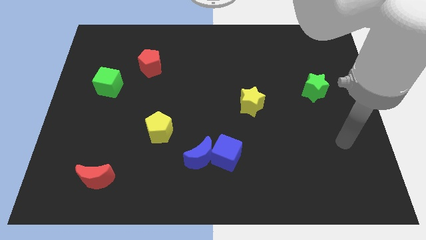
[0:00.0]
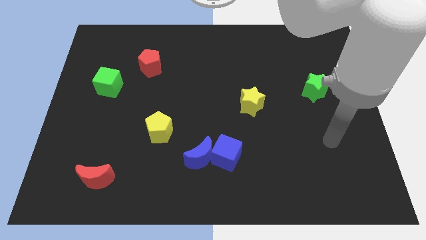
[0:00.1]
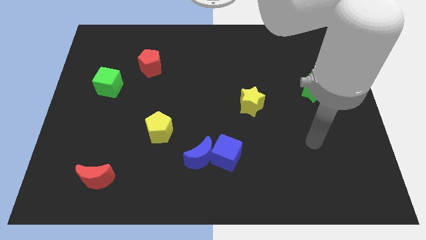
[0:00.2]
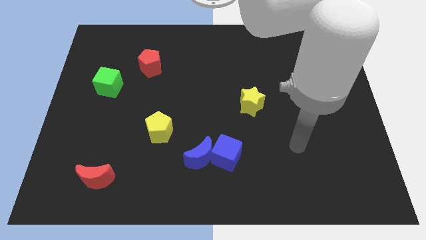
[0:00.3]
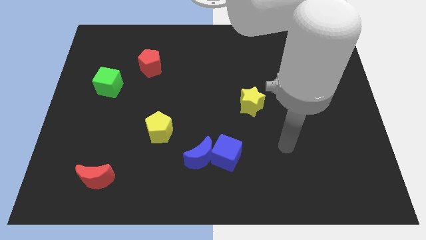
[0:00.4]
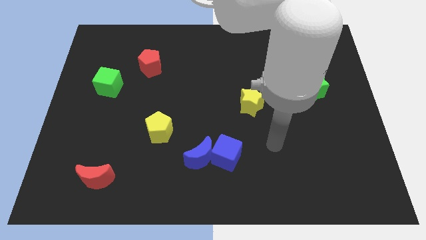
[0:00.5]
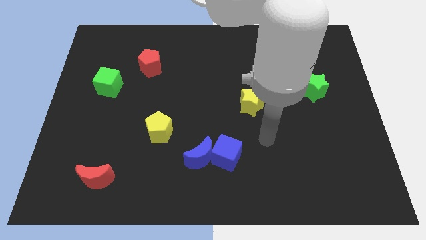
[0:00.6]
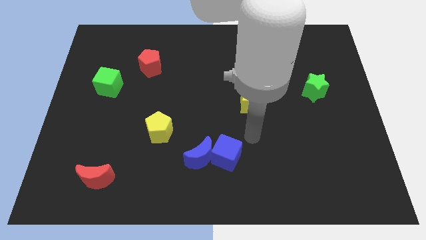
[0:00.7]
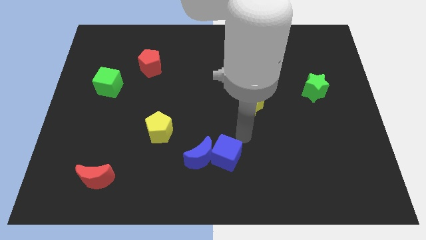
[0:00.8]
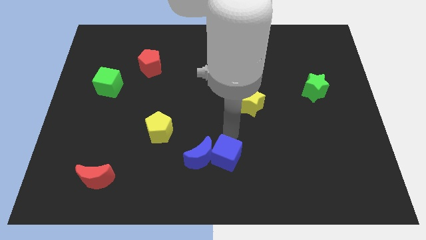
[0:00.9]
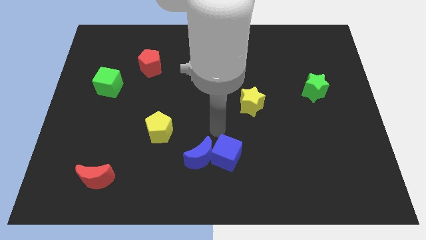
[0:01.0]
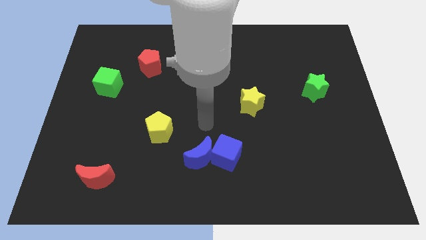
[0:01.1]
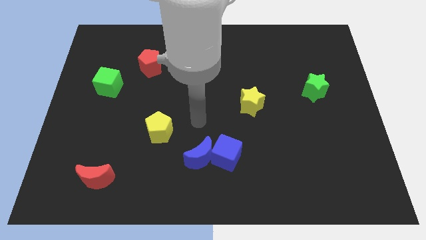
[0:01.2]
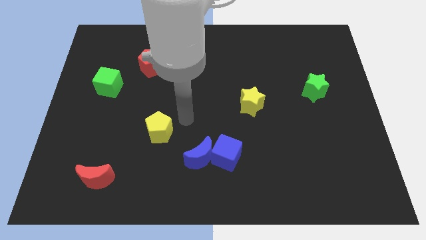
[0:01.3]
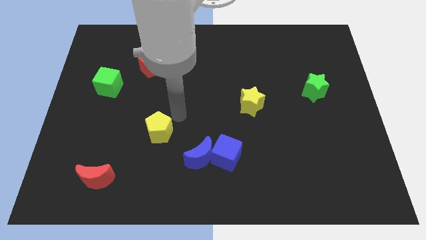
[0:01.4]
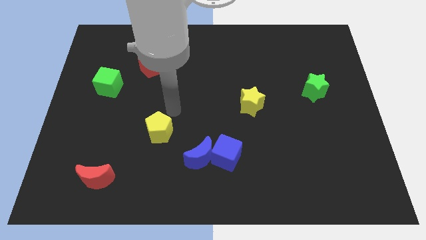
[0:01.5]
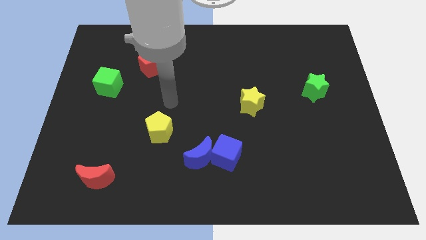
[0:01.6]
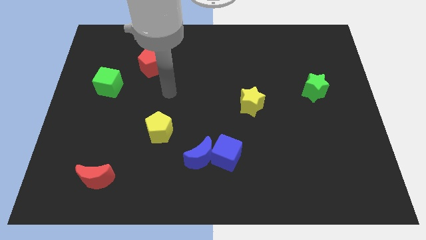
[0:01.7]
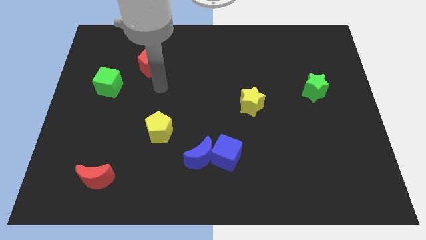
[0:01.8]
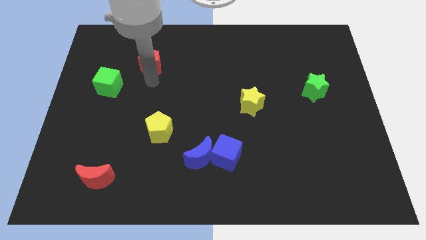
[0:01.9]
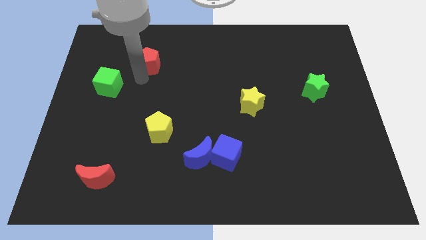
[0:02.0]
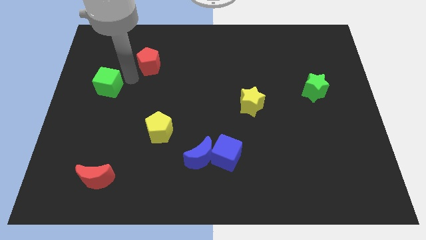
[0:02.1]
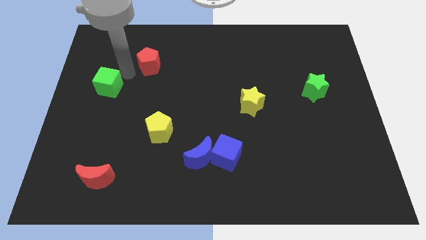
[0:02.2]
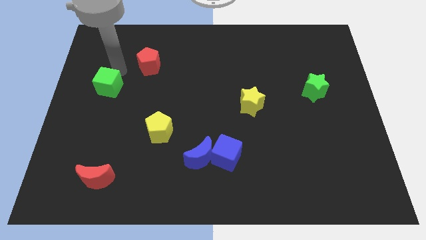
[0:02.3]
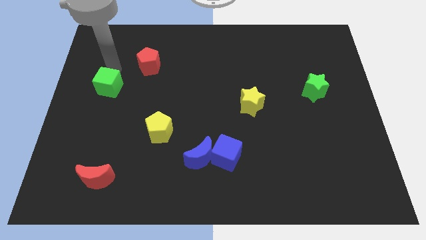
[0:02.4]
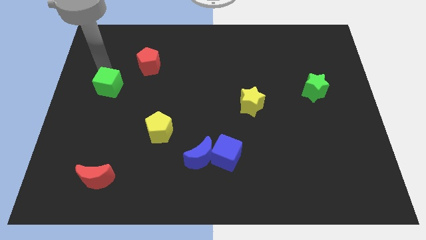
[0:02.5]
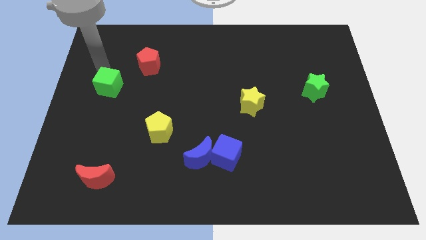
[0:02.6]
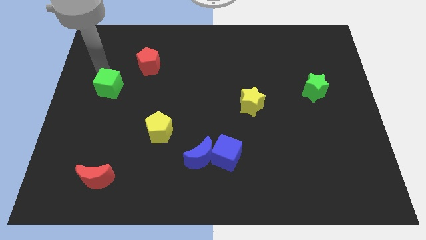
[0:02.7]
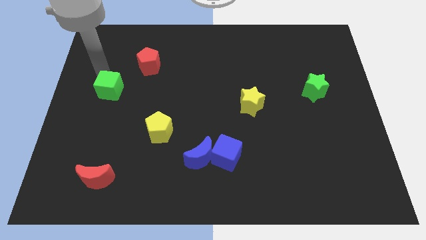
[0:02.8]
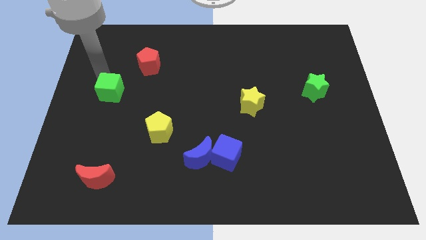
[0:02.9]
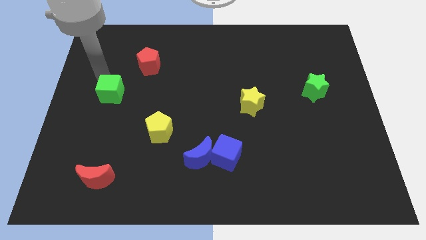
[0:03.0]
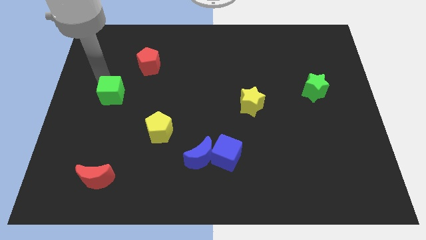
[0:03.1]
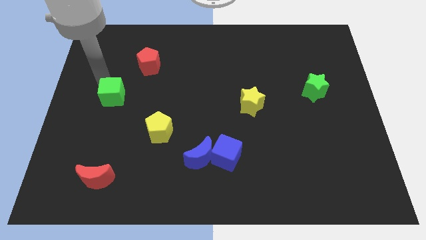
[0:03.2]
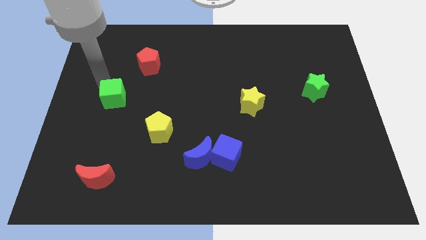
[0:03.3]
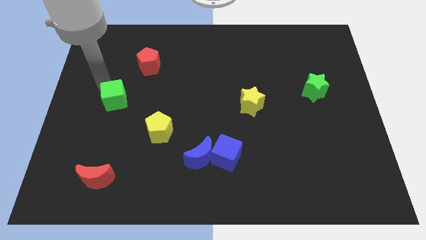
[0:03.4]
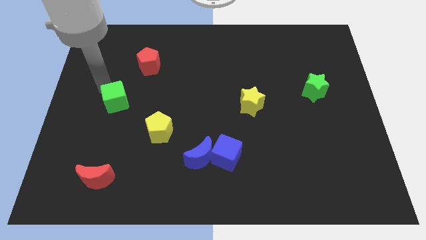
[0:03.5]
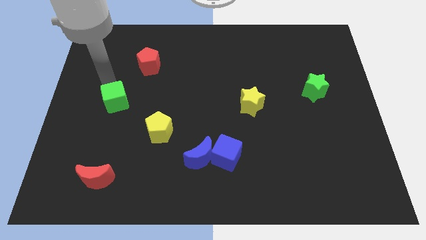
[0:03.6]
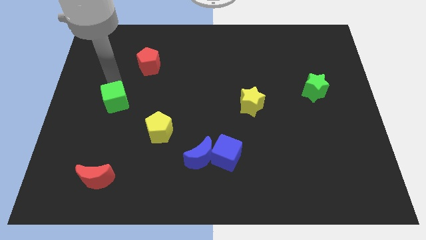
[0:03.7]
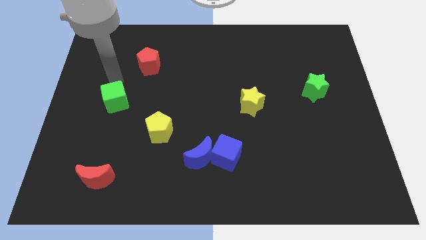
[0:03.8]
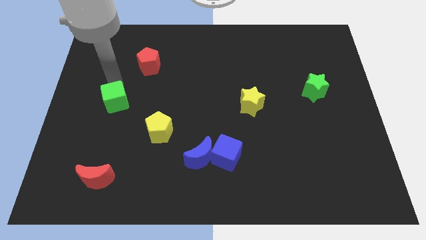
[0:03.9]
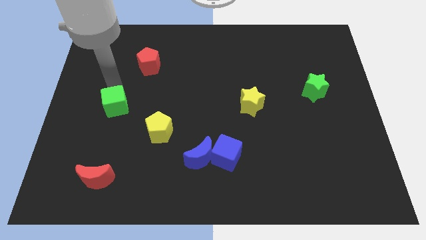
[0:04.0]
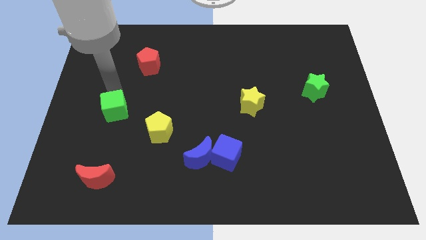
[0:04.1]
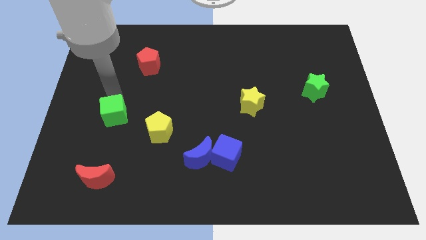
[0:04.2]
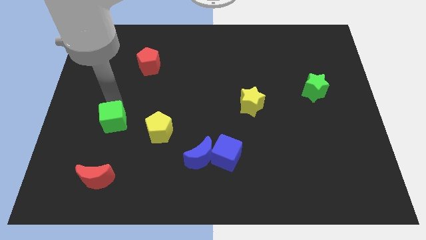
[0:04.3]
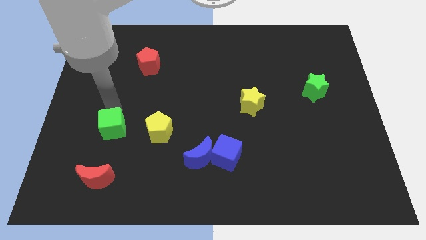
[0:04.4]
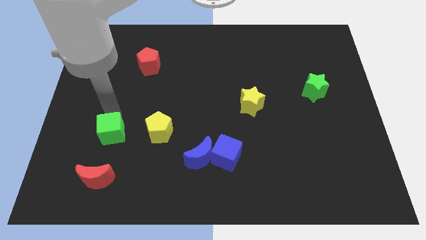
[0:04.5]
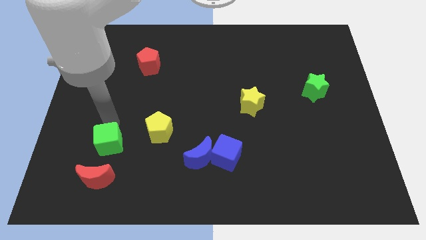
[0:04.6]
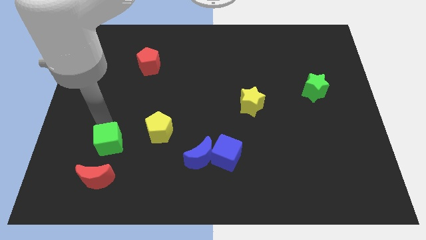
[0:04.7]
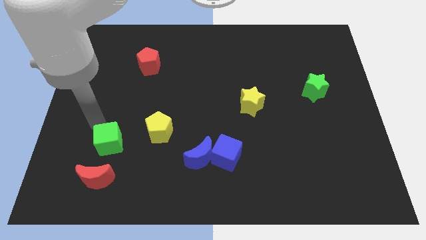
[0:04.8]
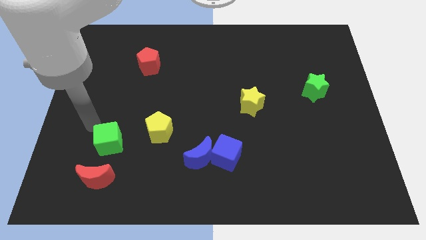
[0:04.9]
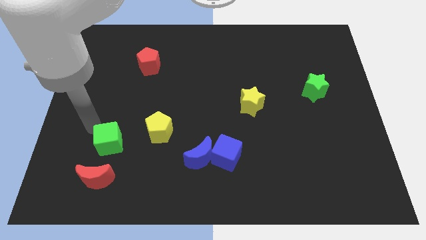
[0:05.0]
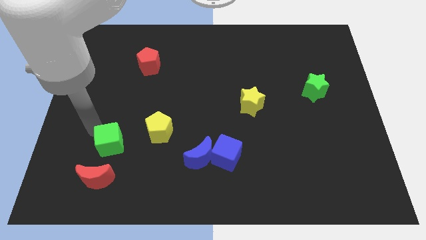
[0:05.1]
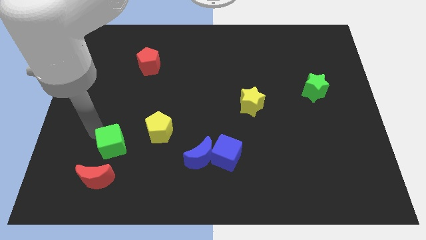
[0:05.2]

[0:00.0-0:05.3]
move the green cube diagonally up and to the right of the red moon

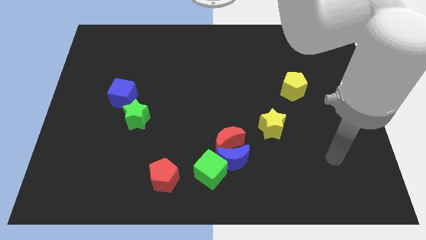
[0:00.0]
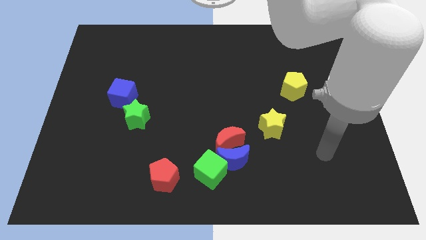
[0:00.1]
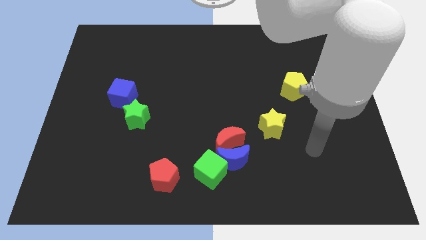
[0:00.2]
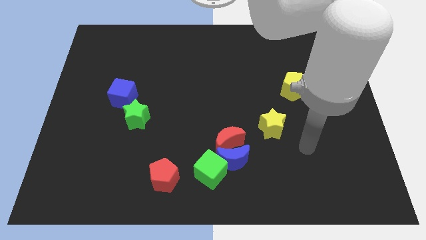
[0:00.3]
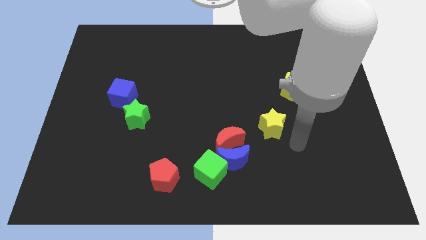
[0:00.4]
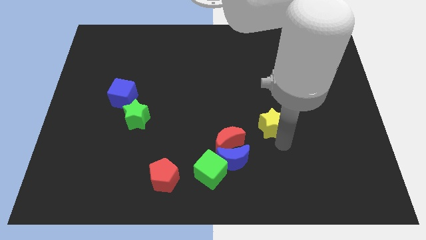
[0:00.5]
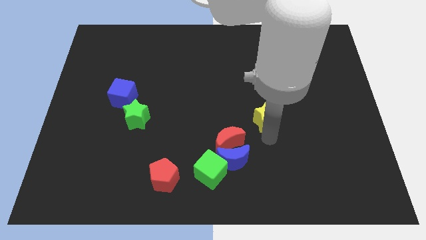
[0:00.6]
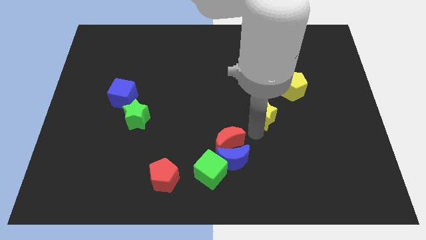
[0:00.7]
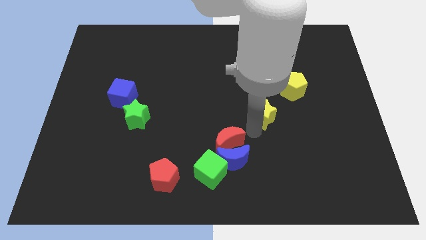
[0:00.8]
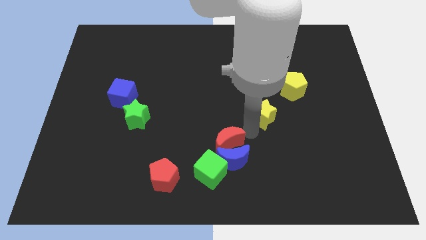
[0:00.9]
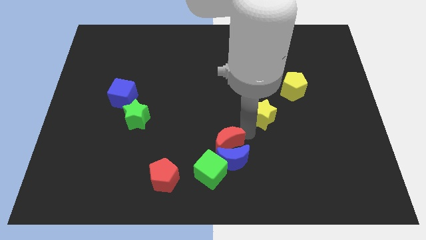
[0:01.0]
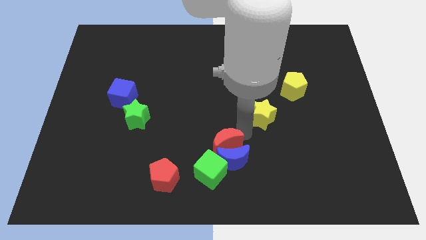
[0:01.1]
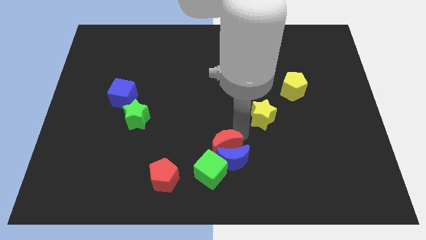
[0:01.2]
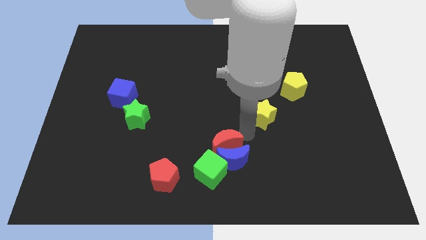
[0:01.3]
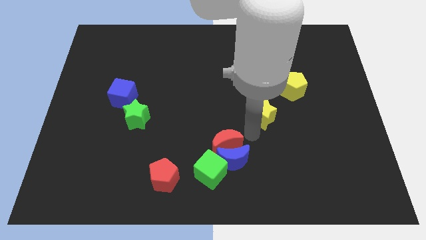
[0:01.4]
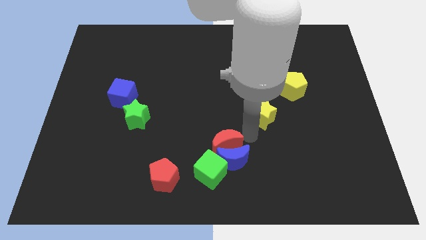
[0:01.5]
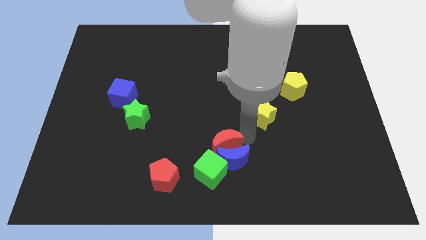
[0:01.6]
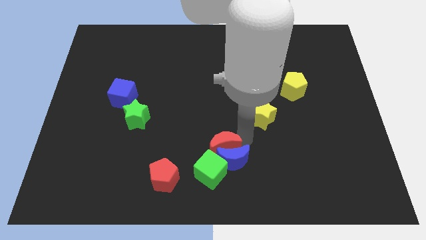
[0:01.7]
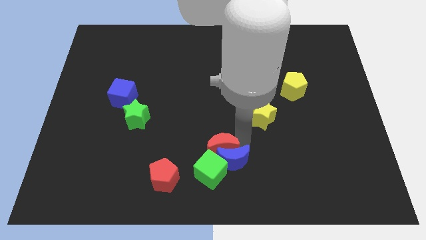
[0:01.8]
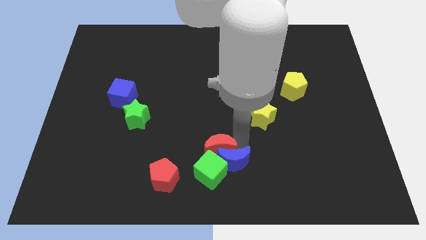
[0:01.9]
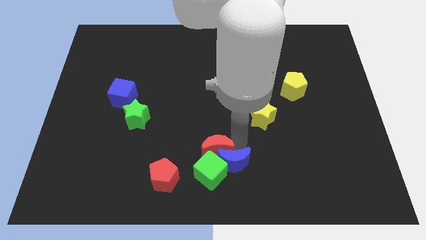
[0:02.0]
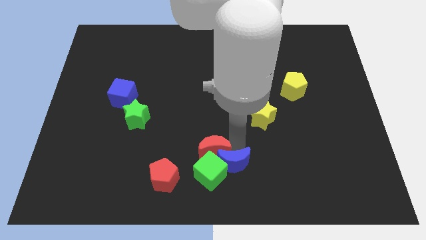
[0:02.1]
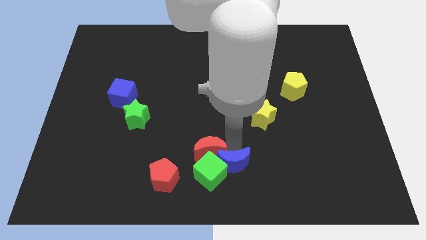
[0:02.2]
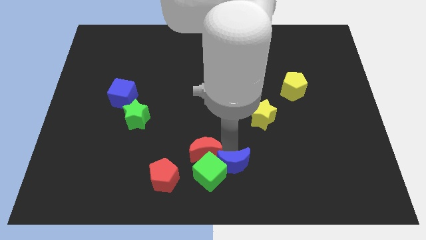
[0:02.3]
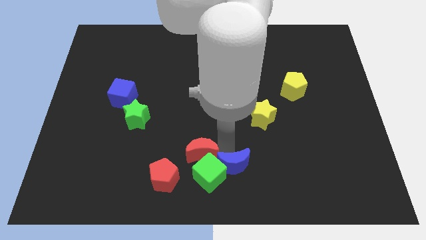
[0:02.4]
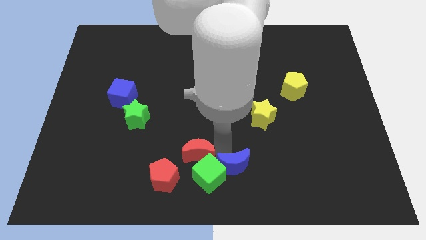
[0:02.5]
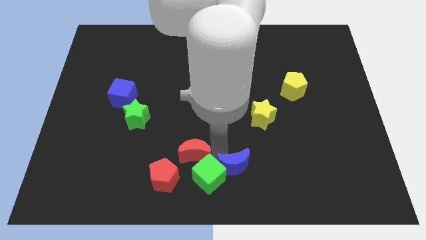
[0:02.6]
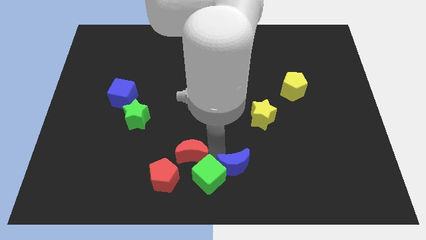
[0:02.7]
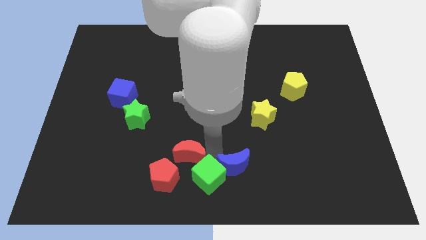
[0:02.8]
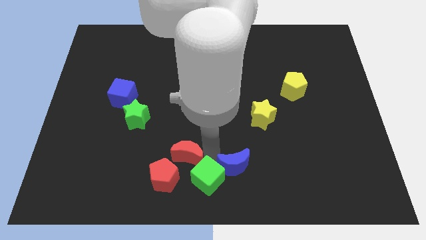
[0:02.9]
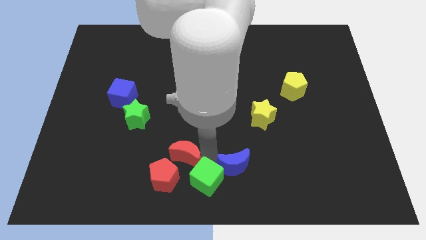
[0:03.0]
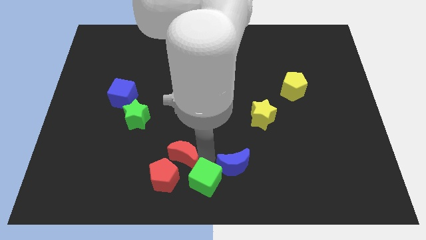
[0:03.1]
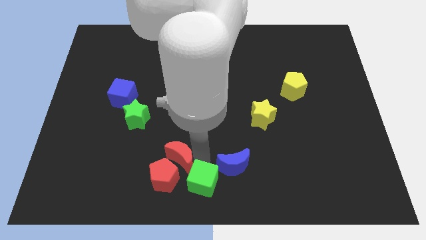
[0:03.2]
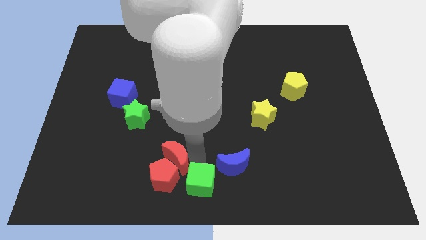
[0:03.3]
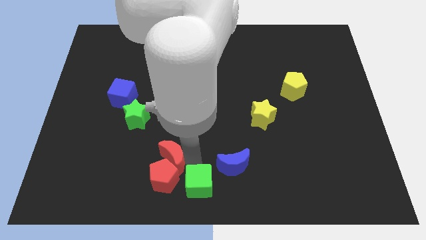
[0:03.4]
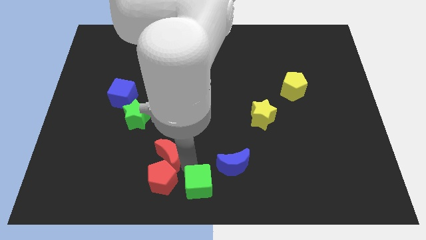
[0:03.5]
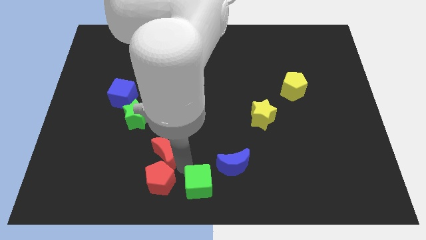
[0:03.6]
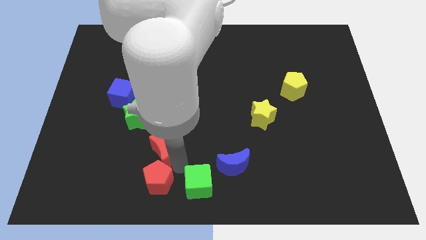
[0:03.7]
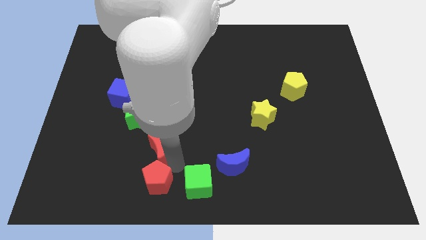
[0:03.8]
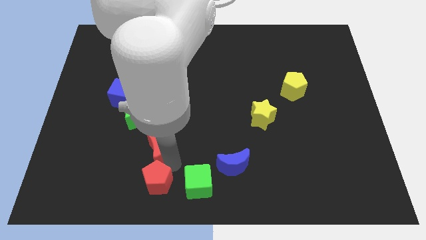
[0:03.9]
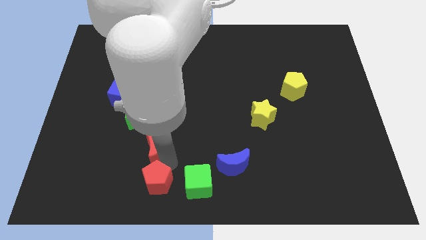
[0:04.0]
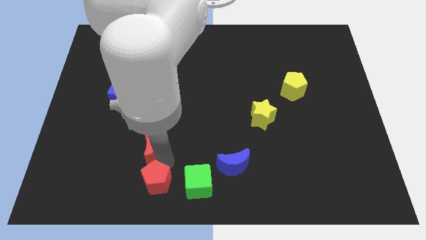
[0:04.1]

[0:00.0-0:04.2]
push the red moon to the bottom of the green star
